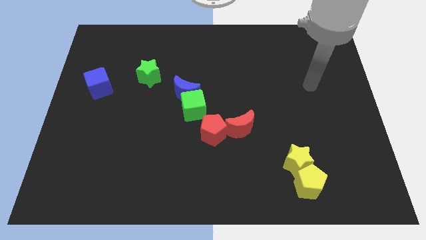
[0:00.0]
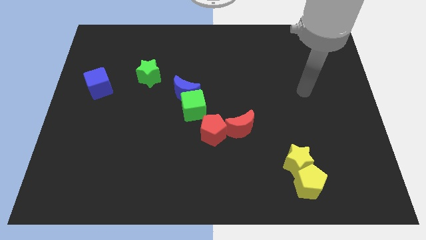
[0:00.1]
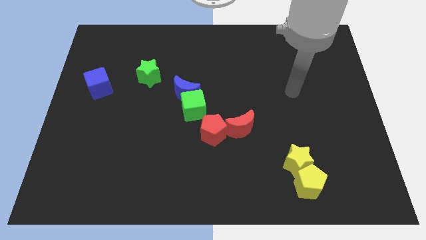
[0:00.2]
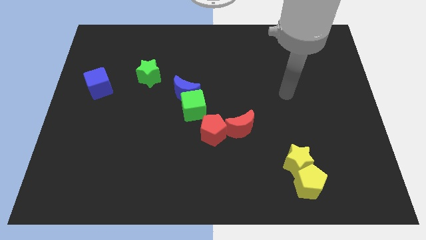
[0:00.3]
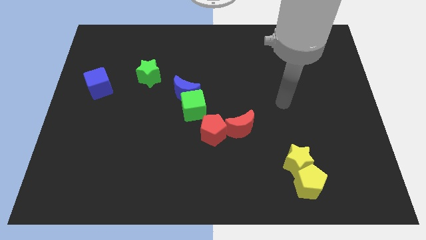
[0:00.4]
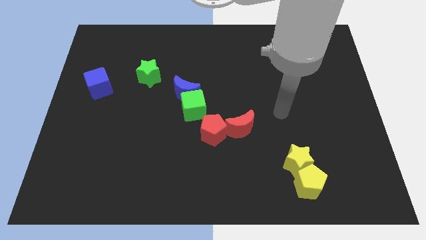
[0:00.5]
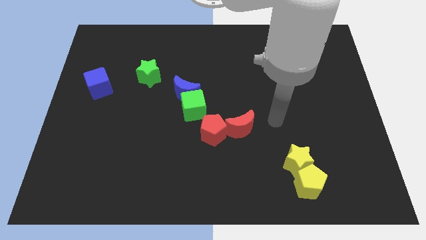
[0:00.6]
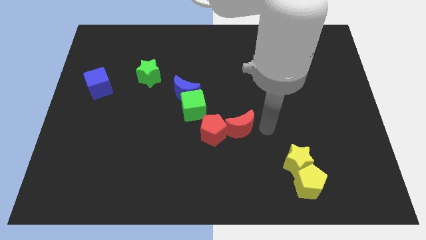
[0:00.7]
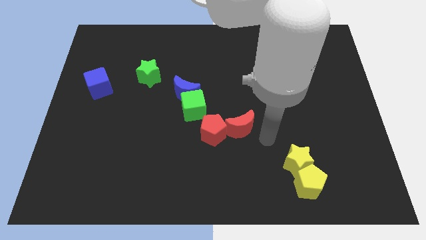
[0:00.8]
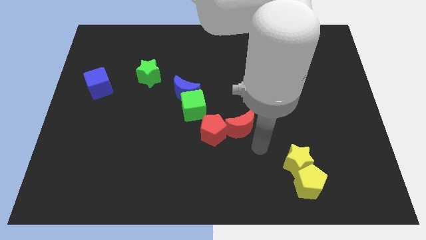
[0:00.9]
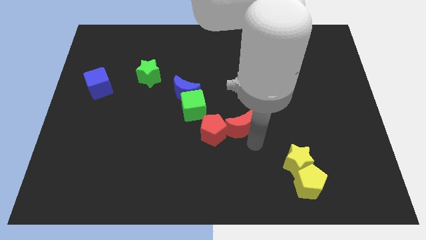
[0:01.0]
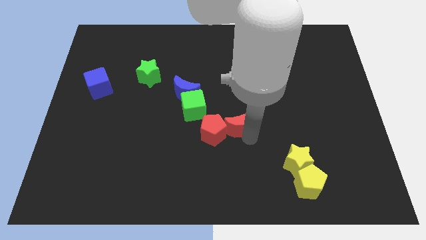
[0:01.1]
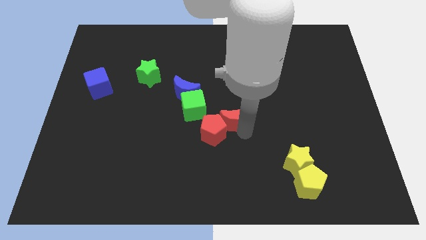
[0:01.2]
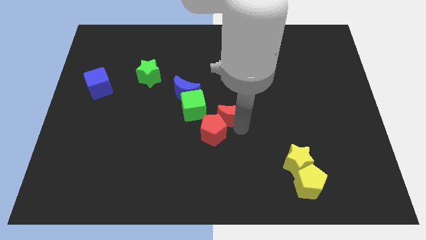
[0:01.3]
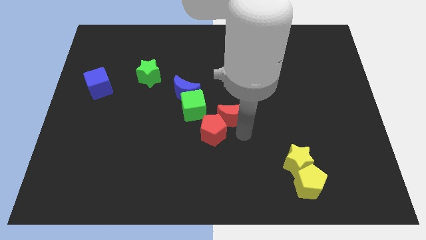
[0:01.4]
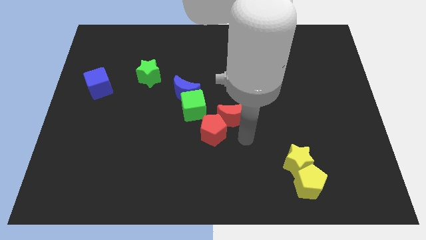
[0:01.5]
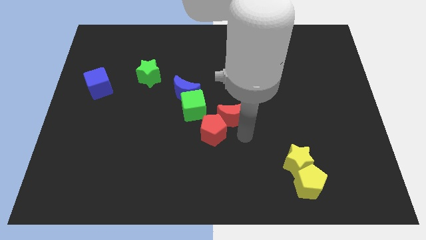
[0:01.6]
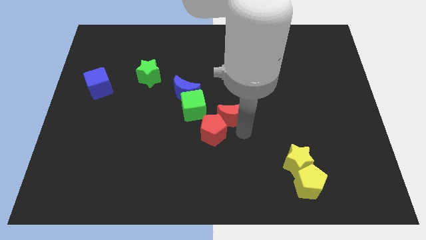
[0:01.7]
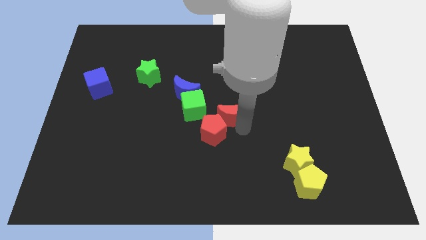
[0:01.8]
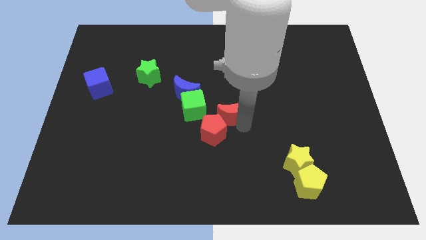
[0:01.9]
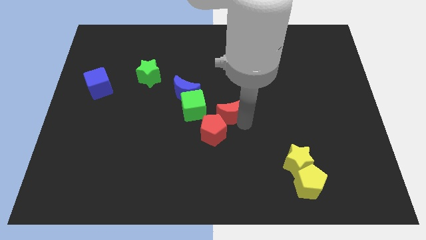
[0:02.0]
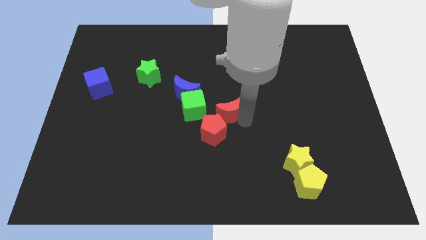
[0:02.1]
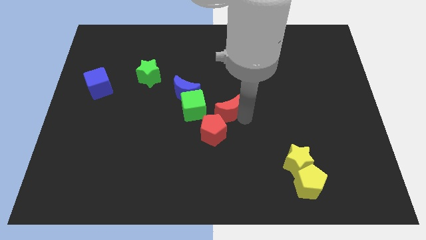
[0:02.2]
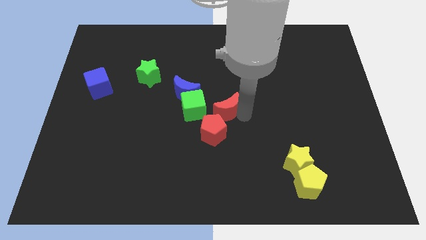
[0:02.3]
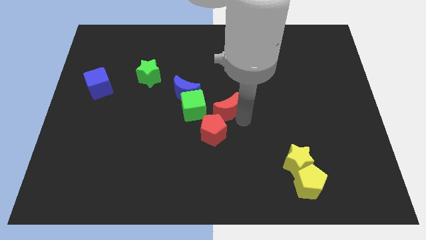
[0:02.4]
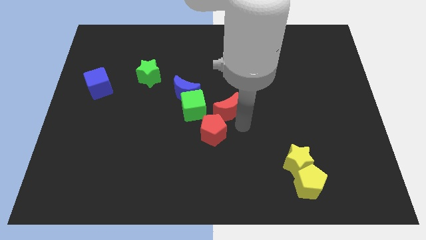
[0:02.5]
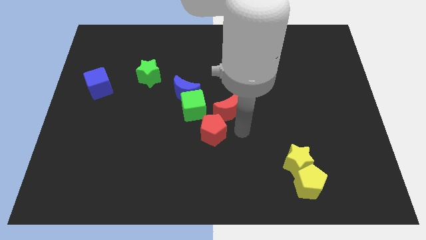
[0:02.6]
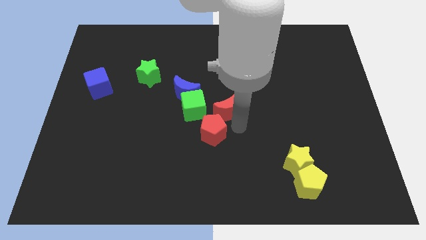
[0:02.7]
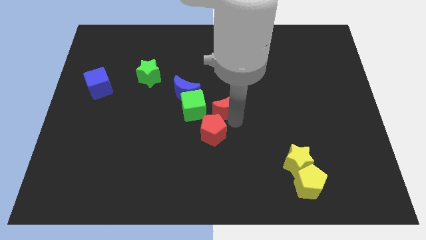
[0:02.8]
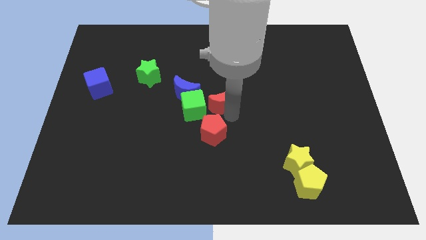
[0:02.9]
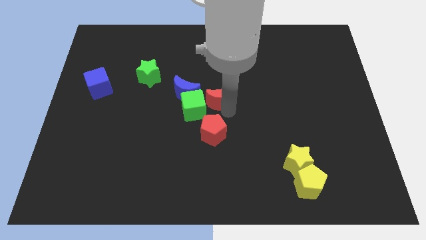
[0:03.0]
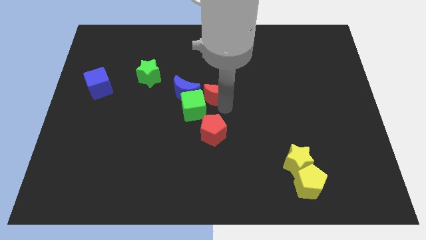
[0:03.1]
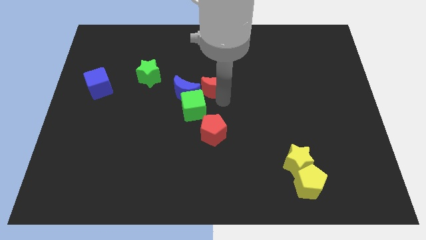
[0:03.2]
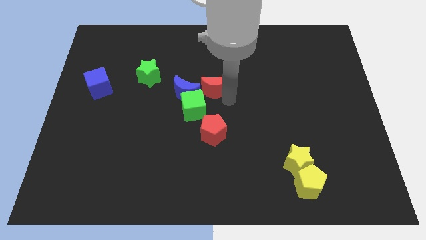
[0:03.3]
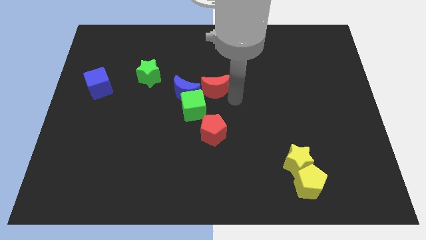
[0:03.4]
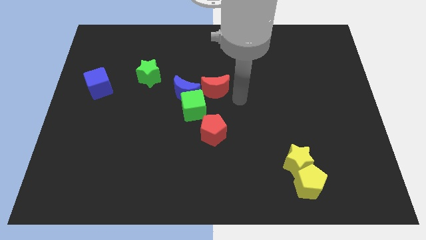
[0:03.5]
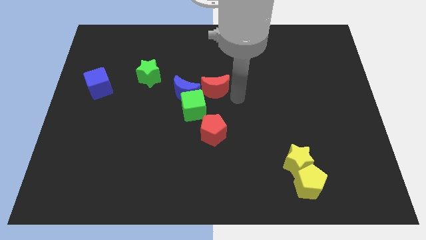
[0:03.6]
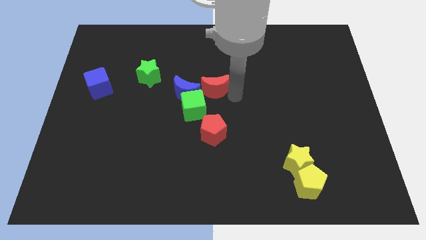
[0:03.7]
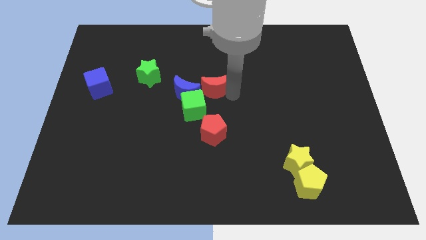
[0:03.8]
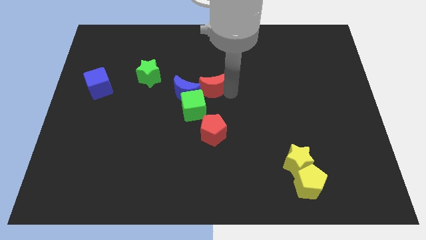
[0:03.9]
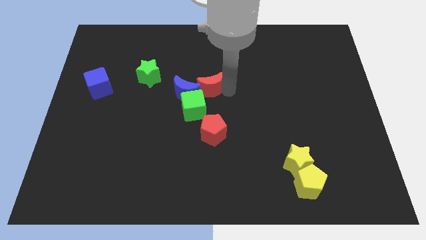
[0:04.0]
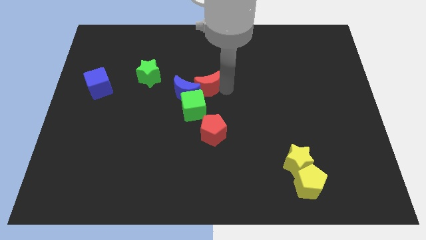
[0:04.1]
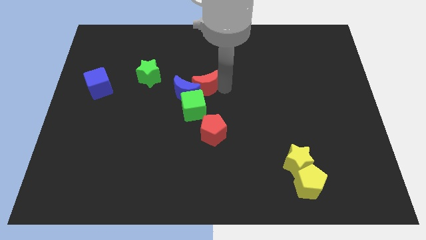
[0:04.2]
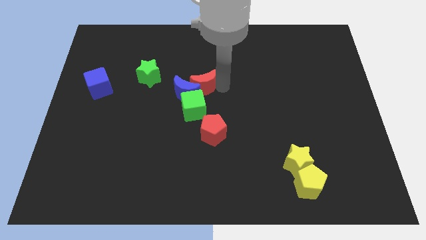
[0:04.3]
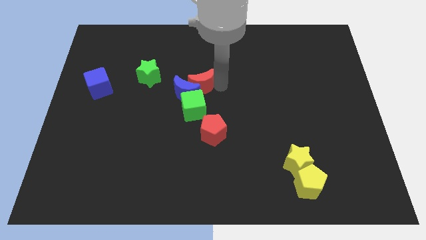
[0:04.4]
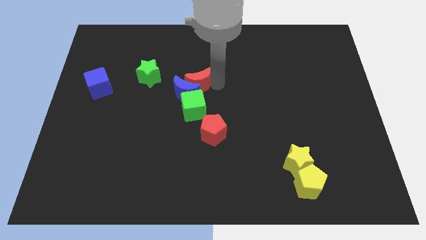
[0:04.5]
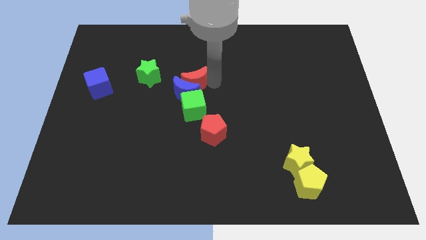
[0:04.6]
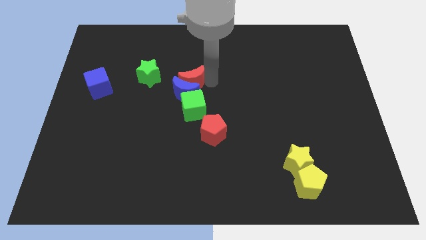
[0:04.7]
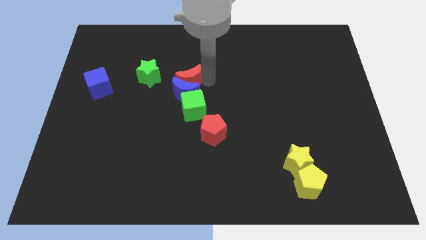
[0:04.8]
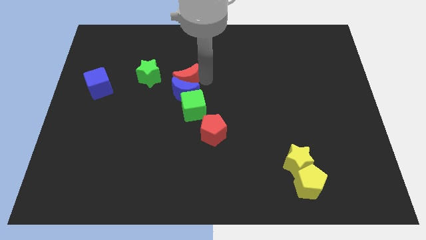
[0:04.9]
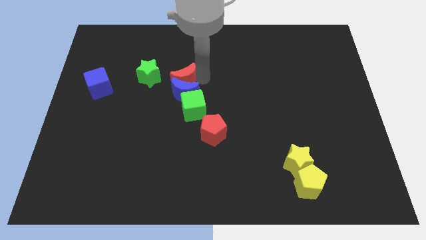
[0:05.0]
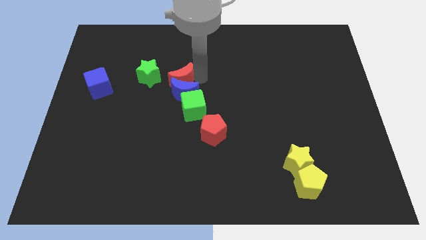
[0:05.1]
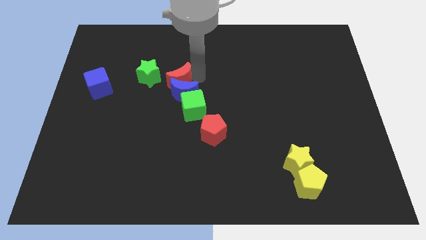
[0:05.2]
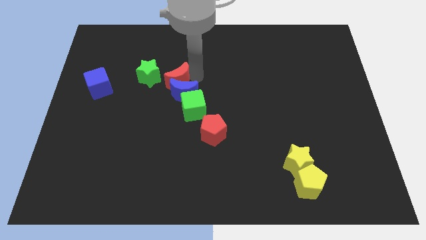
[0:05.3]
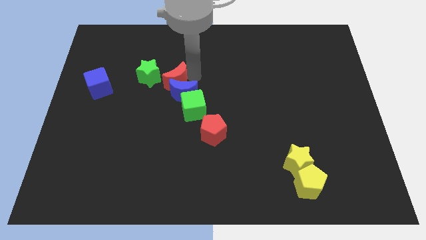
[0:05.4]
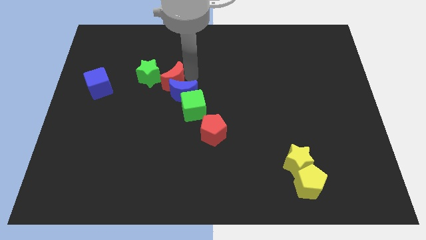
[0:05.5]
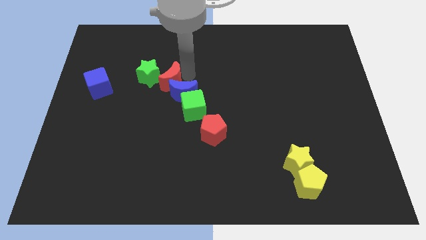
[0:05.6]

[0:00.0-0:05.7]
push the red moon next to the green star

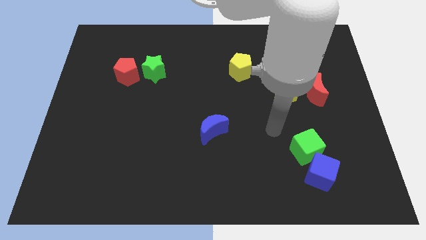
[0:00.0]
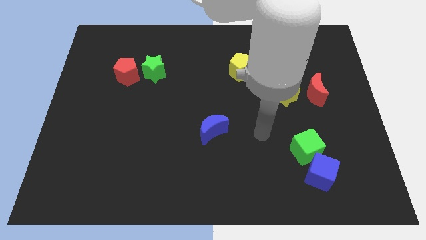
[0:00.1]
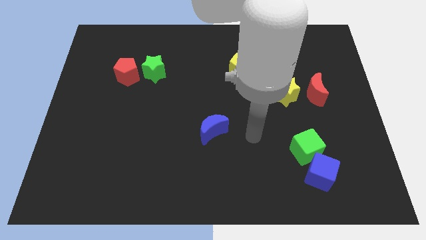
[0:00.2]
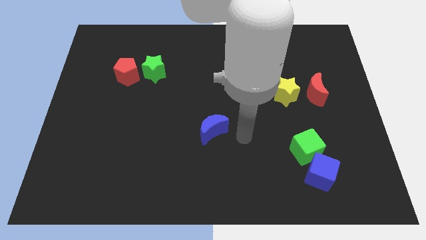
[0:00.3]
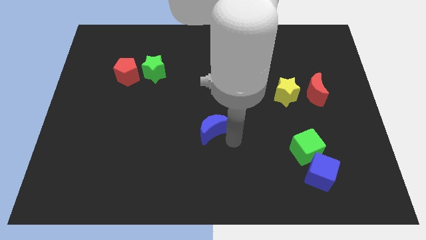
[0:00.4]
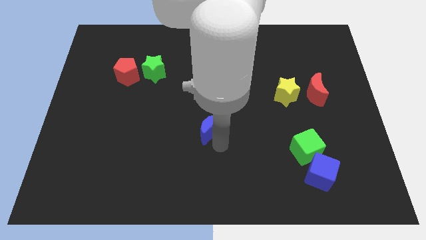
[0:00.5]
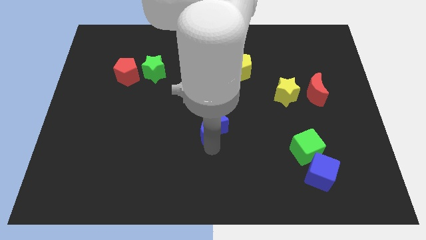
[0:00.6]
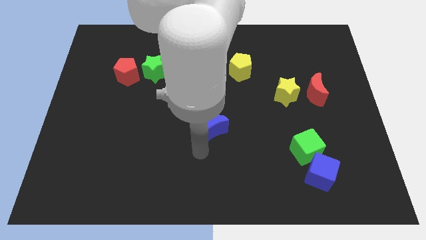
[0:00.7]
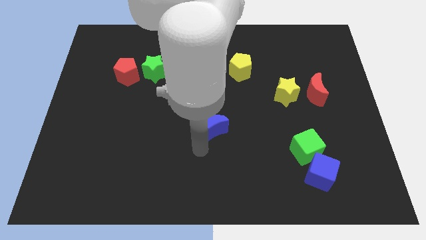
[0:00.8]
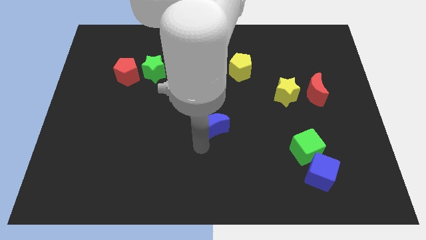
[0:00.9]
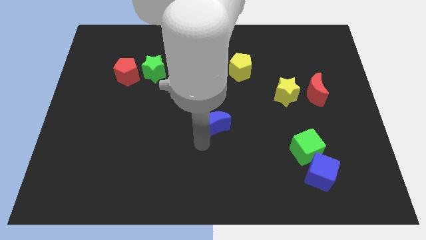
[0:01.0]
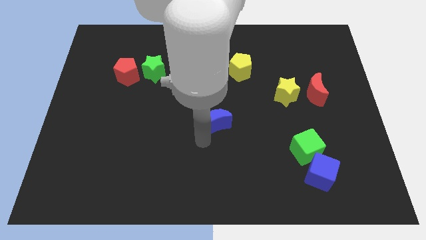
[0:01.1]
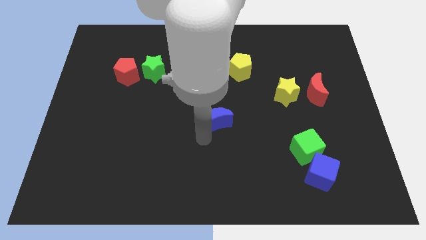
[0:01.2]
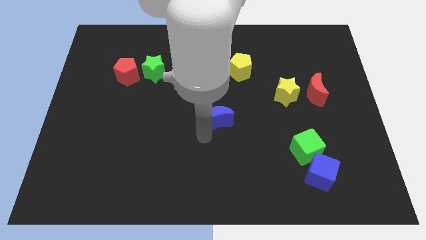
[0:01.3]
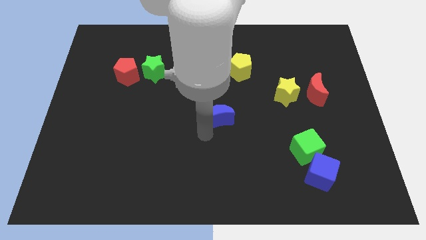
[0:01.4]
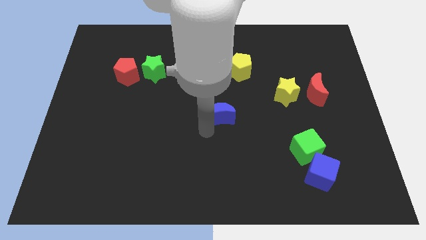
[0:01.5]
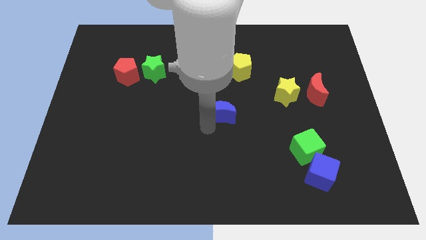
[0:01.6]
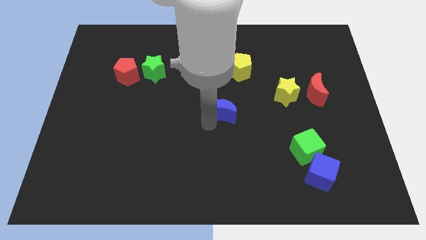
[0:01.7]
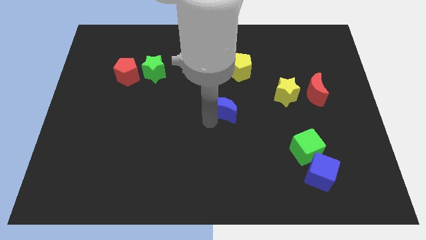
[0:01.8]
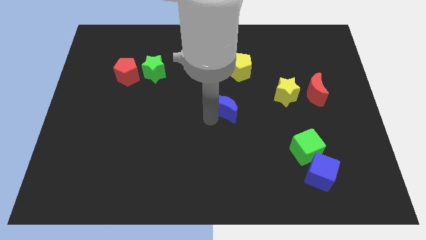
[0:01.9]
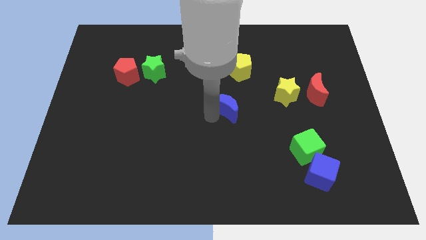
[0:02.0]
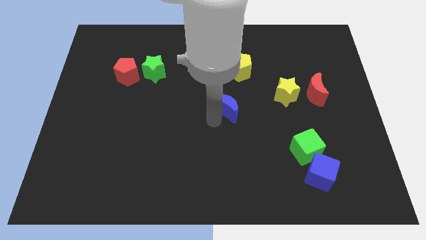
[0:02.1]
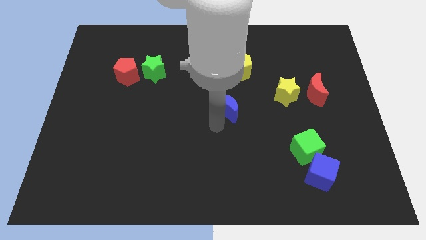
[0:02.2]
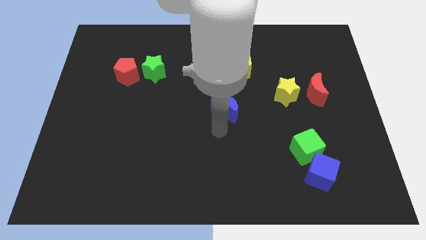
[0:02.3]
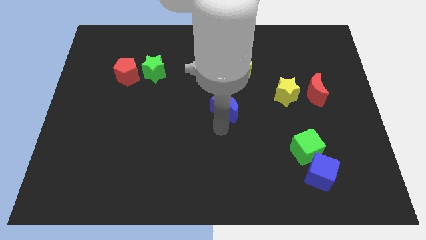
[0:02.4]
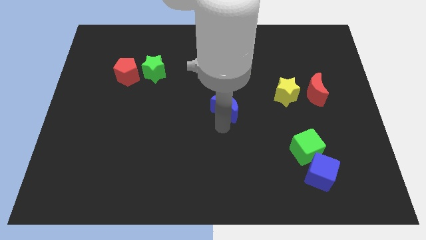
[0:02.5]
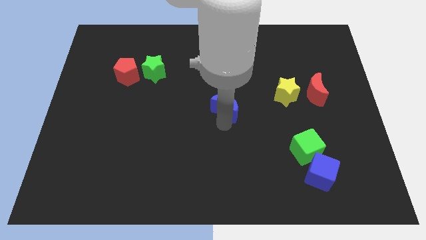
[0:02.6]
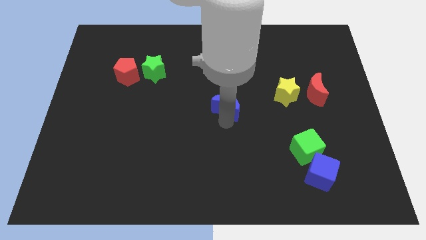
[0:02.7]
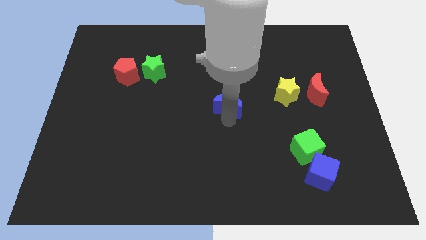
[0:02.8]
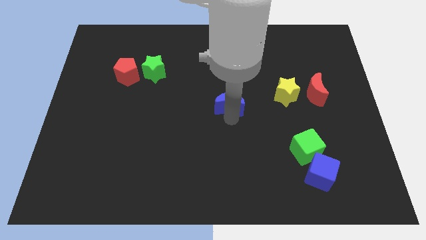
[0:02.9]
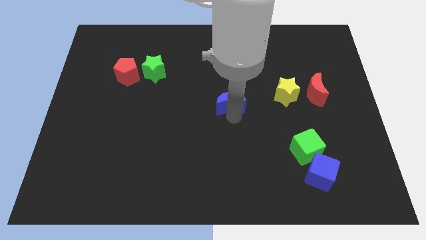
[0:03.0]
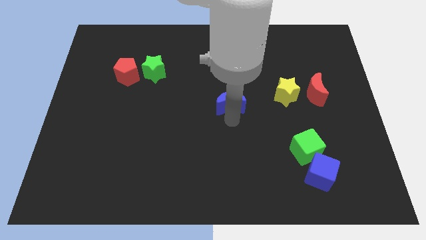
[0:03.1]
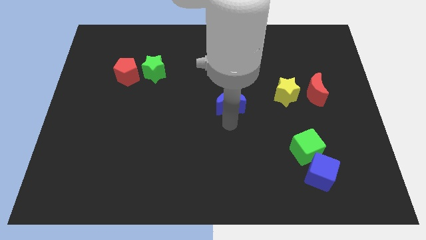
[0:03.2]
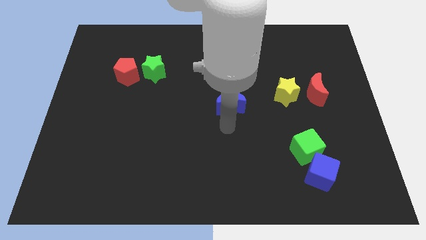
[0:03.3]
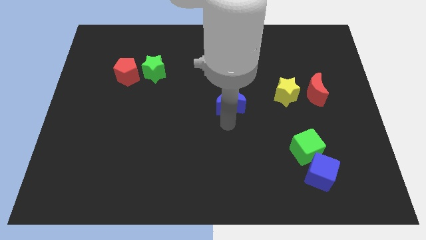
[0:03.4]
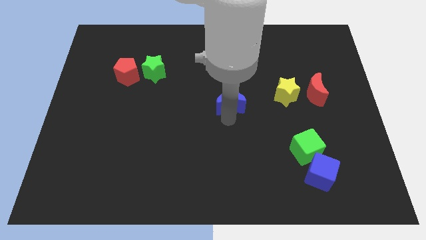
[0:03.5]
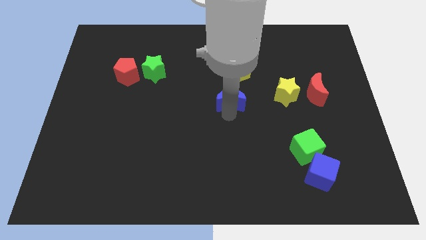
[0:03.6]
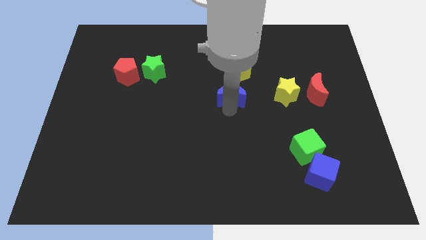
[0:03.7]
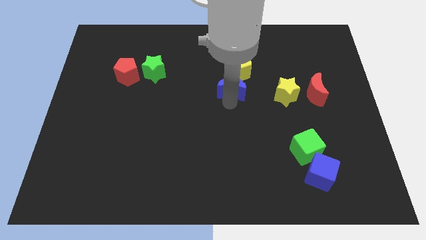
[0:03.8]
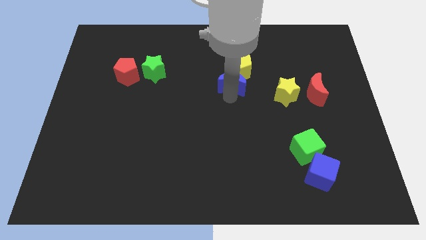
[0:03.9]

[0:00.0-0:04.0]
slide the blue moon next to the yellow pentagon
